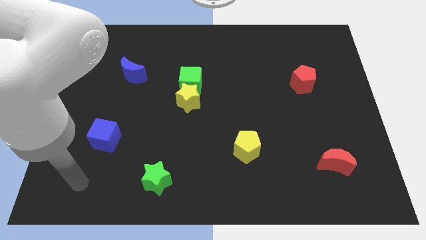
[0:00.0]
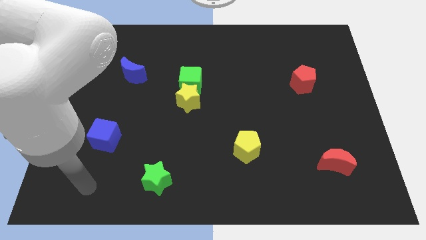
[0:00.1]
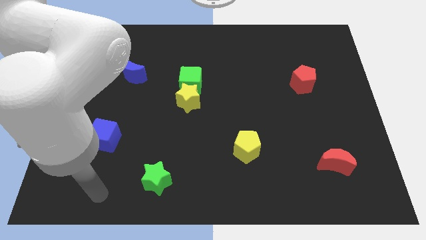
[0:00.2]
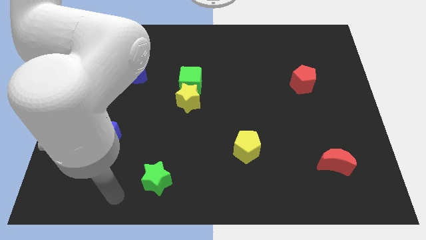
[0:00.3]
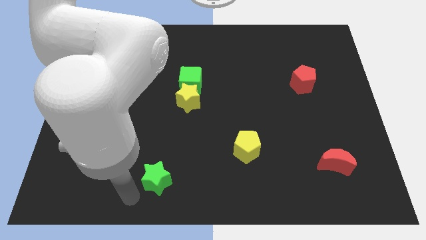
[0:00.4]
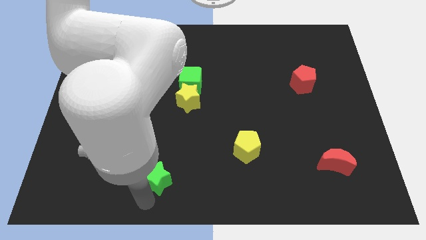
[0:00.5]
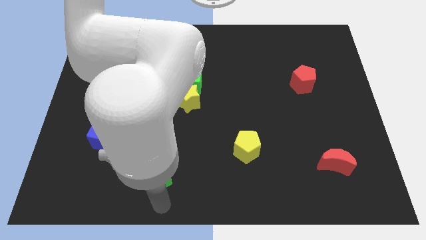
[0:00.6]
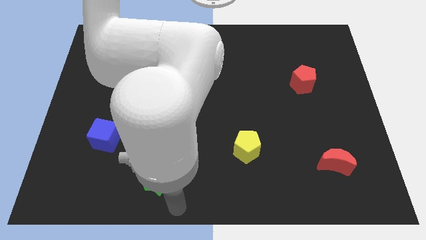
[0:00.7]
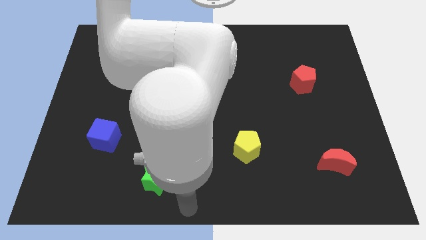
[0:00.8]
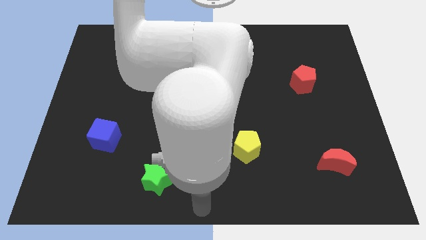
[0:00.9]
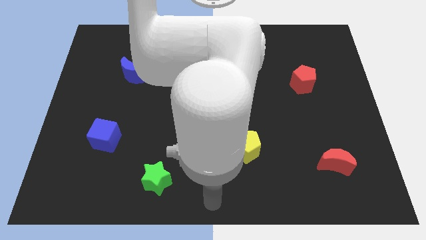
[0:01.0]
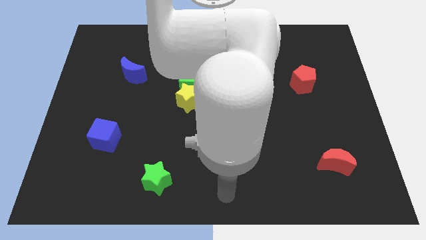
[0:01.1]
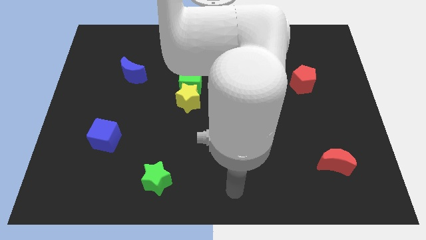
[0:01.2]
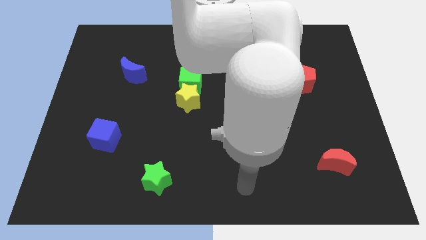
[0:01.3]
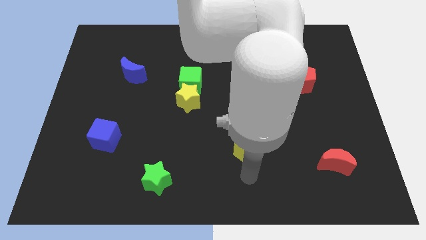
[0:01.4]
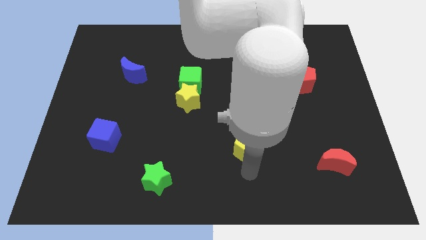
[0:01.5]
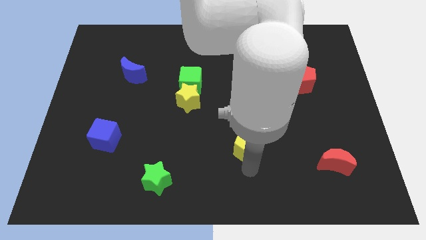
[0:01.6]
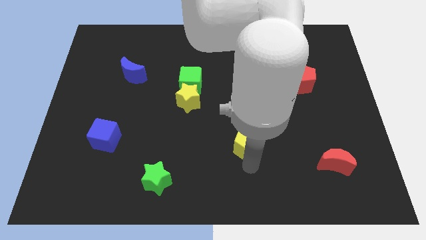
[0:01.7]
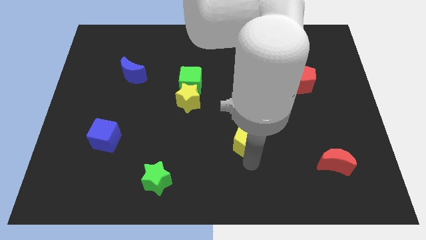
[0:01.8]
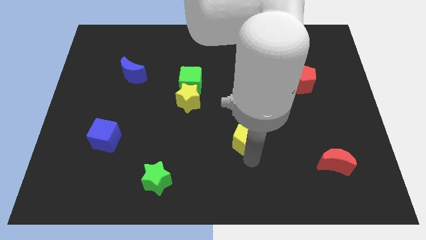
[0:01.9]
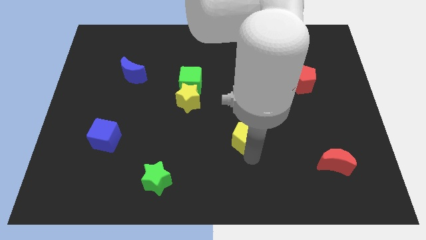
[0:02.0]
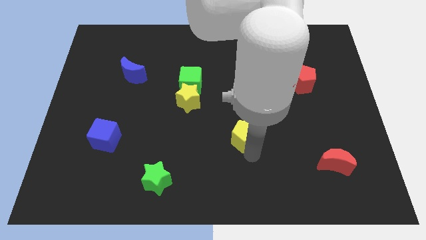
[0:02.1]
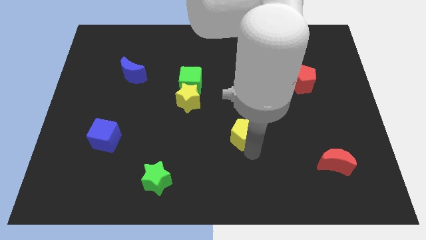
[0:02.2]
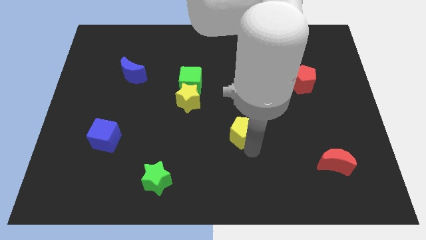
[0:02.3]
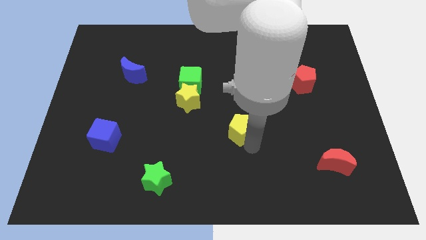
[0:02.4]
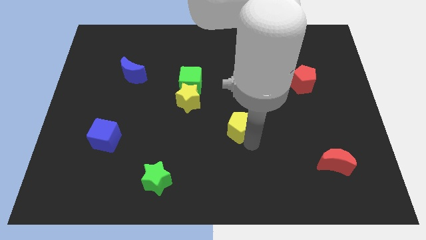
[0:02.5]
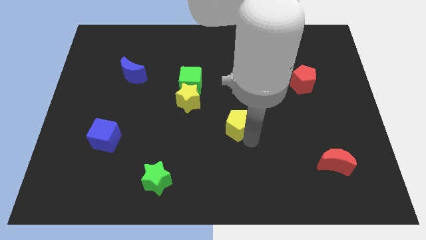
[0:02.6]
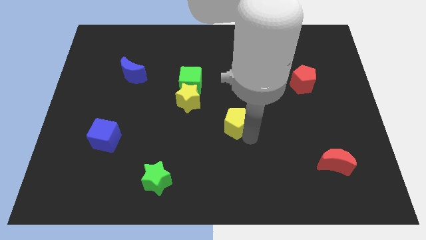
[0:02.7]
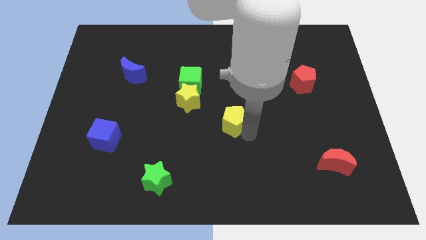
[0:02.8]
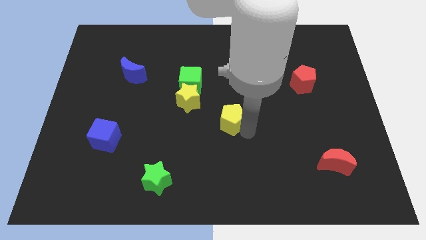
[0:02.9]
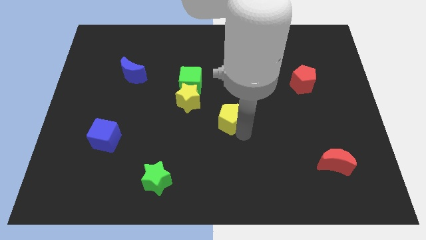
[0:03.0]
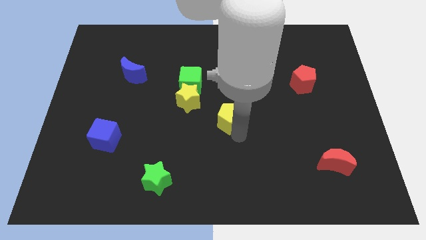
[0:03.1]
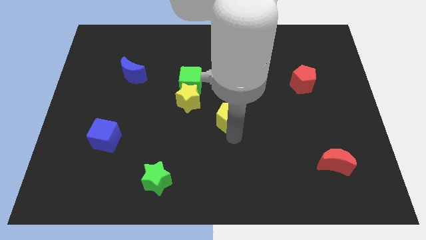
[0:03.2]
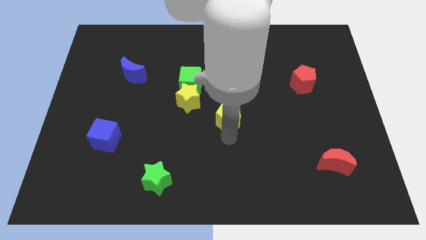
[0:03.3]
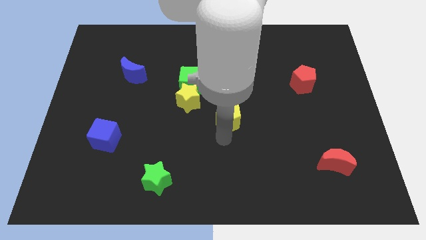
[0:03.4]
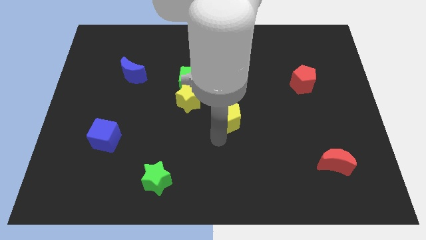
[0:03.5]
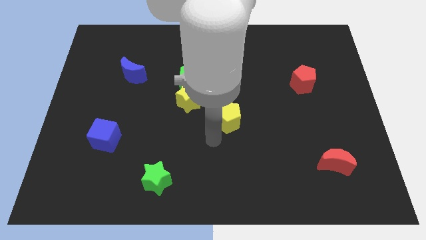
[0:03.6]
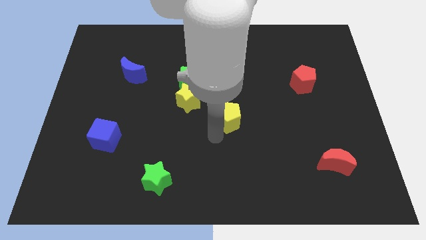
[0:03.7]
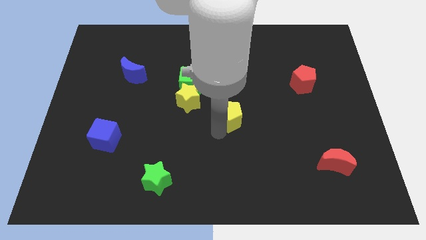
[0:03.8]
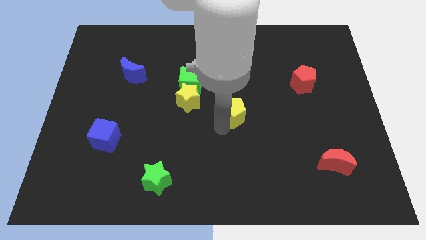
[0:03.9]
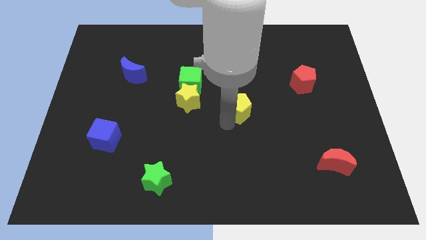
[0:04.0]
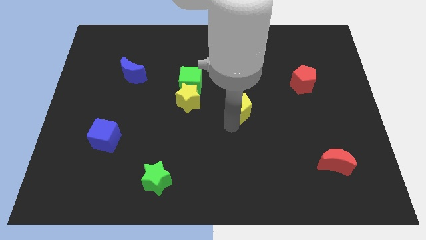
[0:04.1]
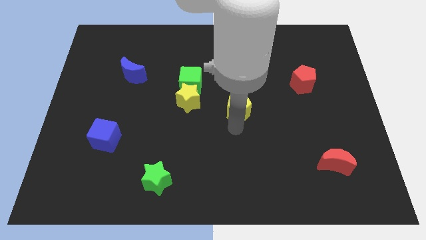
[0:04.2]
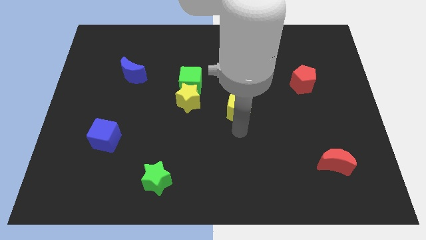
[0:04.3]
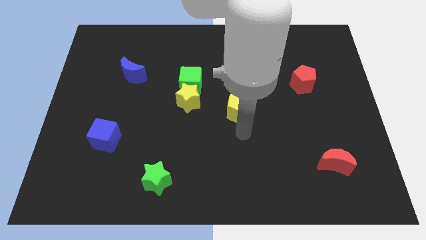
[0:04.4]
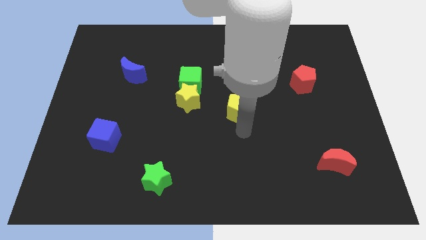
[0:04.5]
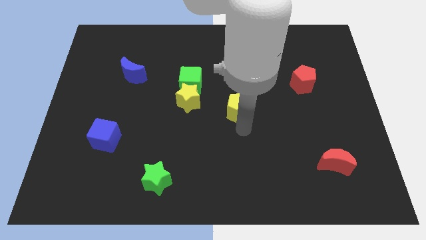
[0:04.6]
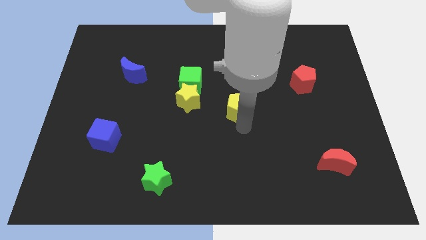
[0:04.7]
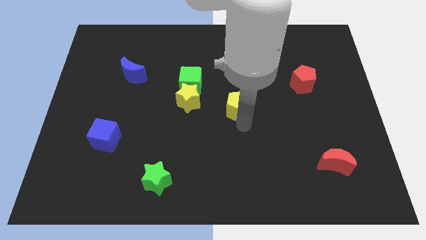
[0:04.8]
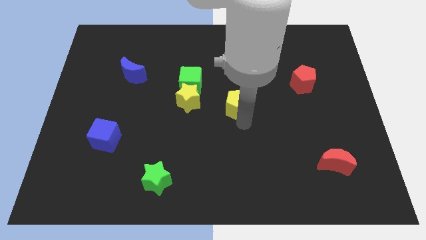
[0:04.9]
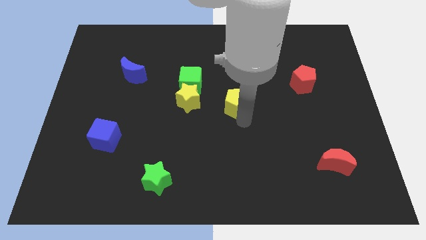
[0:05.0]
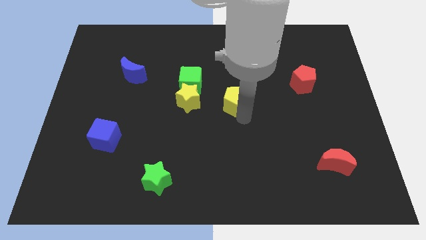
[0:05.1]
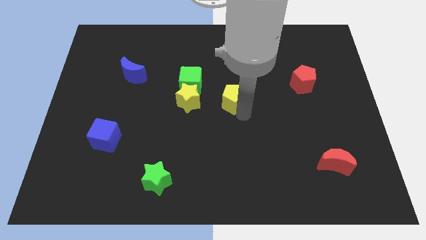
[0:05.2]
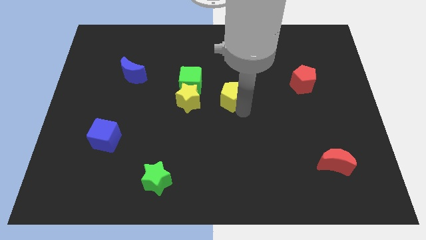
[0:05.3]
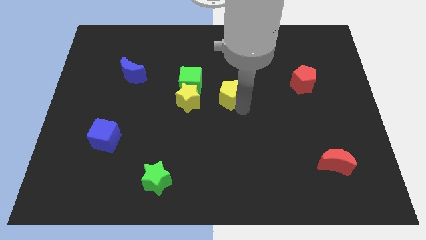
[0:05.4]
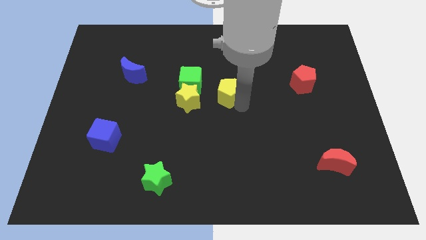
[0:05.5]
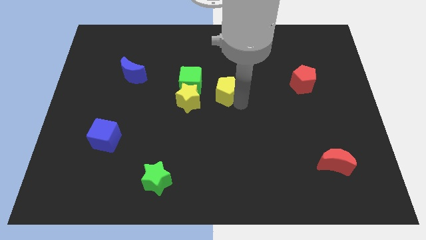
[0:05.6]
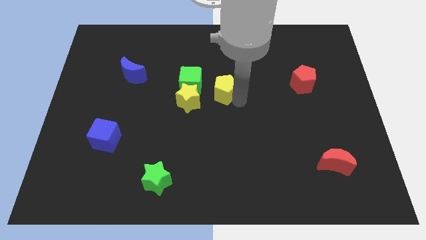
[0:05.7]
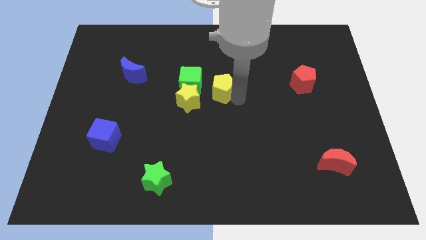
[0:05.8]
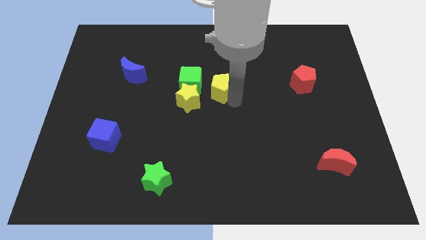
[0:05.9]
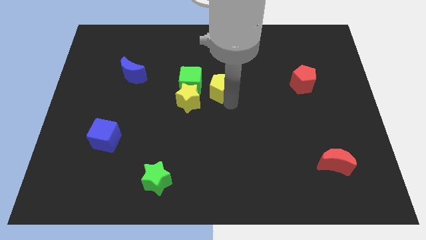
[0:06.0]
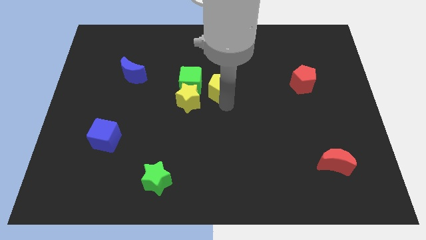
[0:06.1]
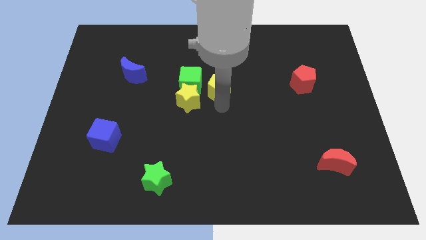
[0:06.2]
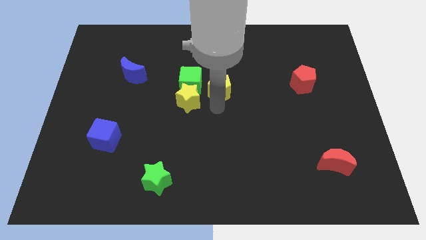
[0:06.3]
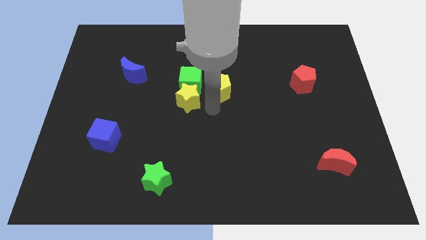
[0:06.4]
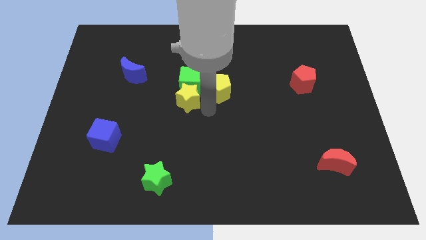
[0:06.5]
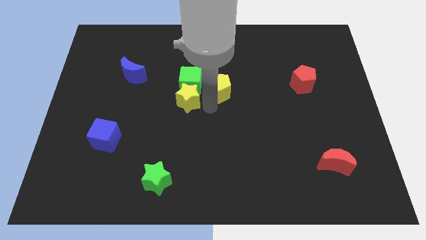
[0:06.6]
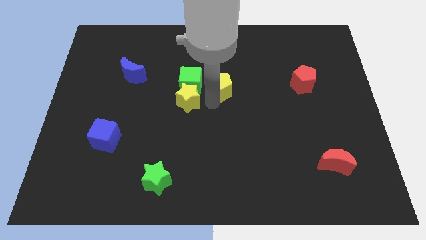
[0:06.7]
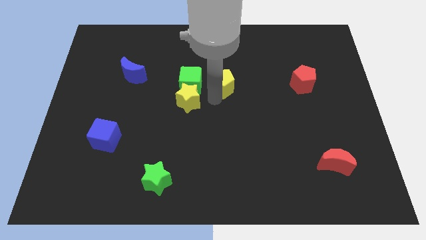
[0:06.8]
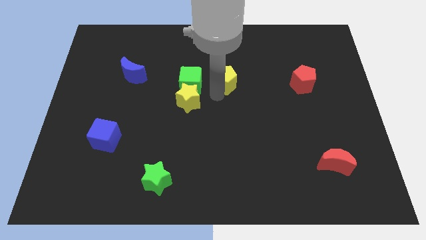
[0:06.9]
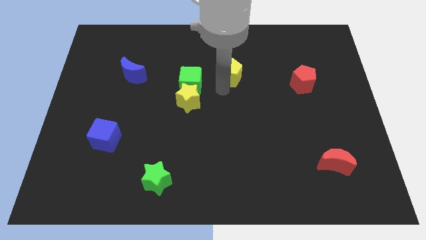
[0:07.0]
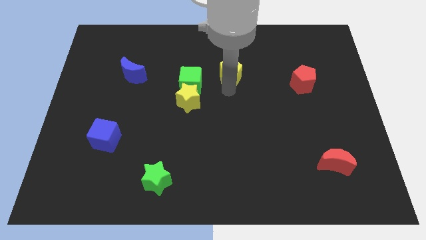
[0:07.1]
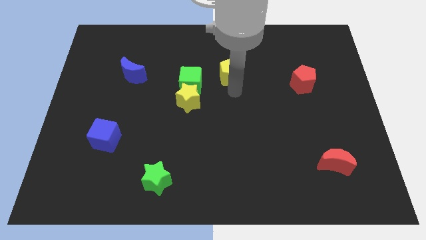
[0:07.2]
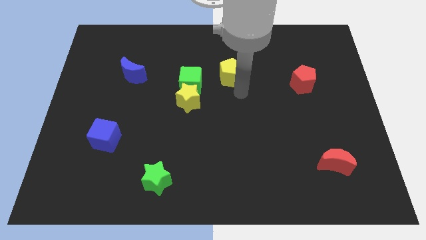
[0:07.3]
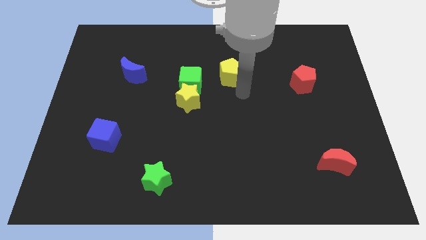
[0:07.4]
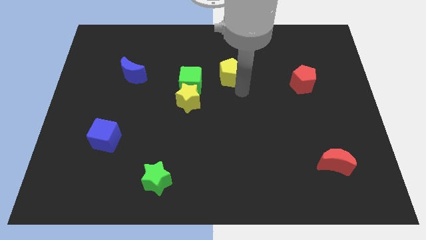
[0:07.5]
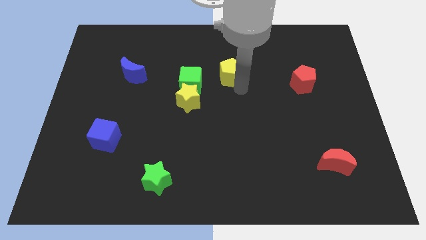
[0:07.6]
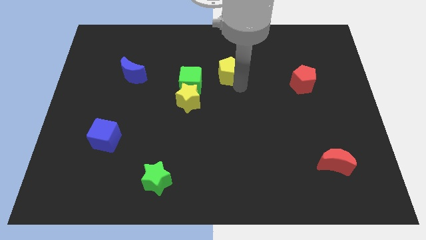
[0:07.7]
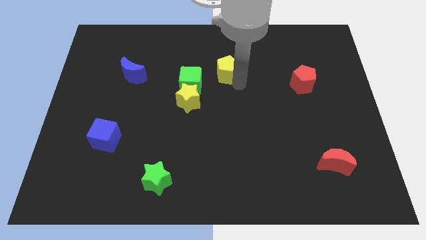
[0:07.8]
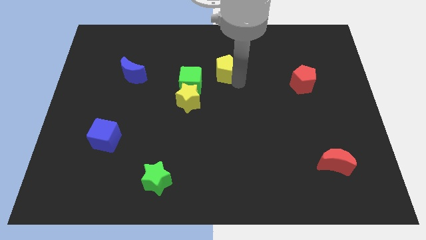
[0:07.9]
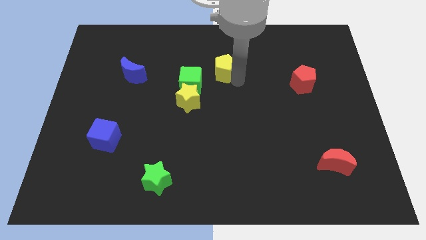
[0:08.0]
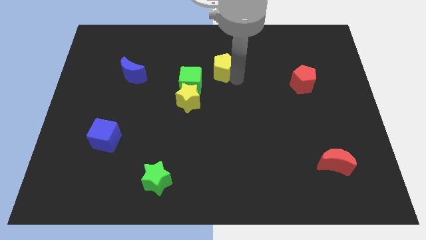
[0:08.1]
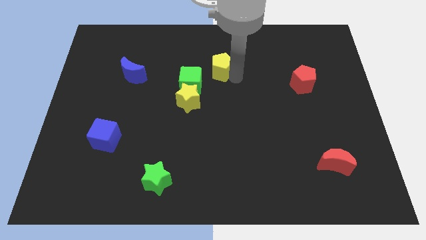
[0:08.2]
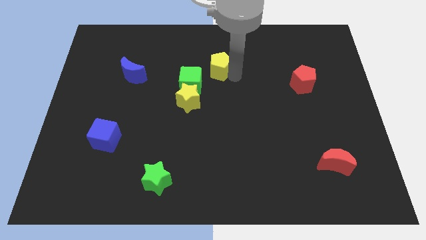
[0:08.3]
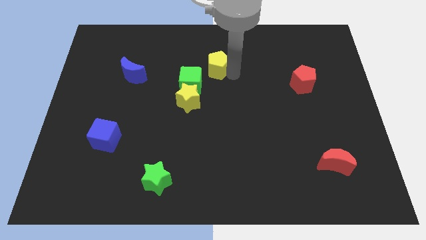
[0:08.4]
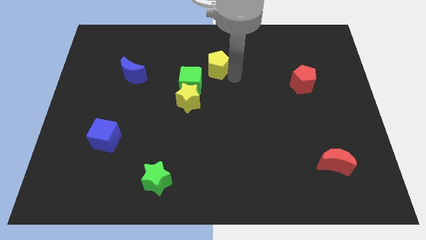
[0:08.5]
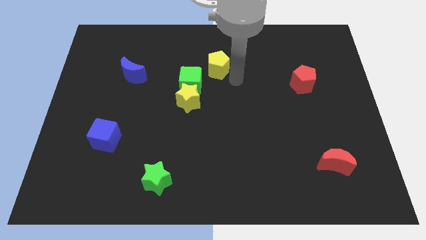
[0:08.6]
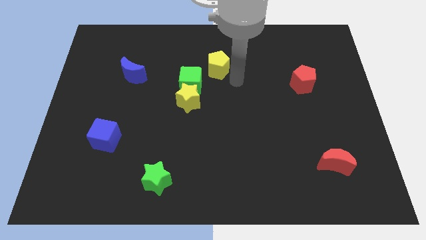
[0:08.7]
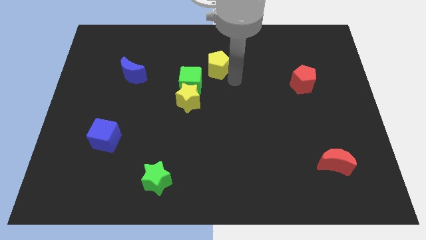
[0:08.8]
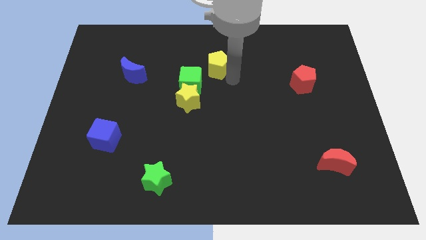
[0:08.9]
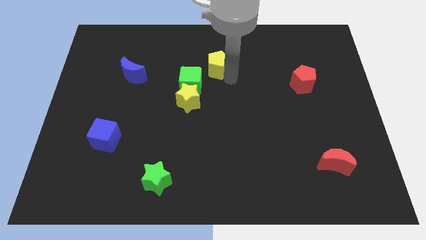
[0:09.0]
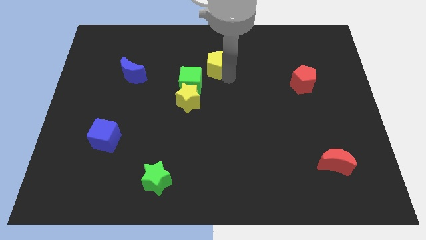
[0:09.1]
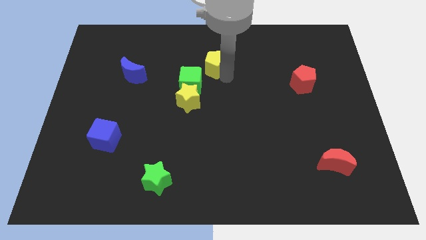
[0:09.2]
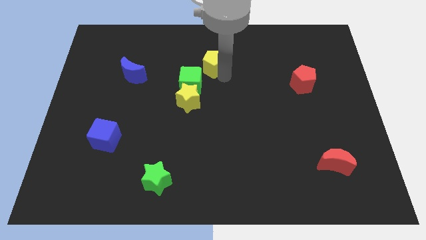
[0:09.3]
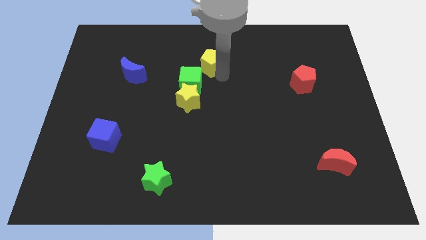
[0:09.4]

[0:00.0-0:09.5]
slide the yellow pentagon to the top of the green cube
